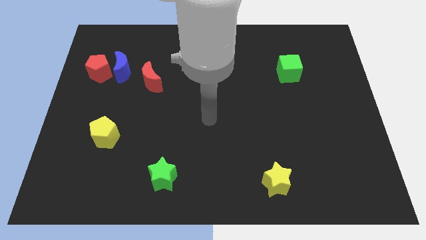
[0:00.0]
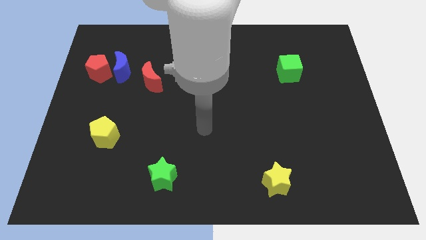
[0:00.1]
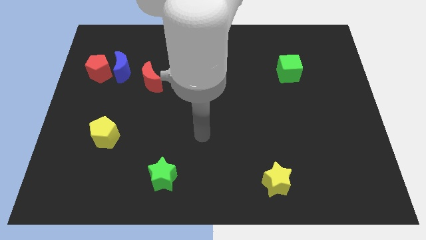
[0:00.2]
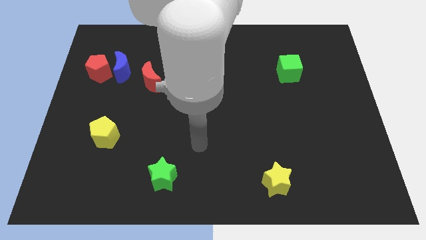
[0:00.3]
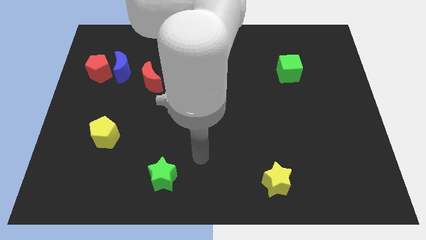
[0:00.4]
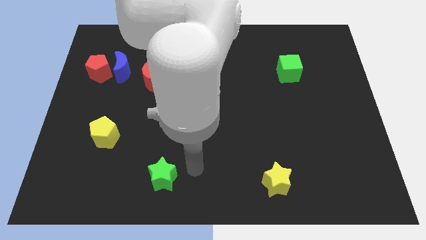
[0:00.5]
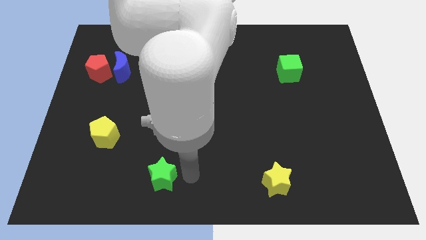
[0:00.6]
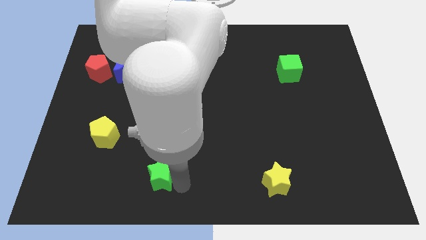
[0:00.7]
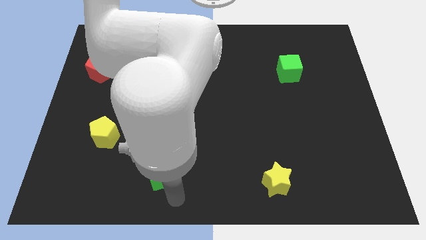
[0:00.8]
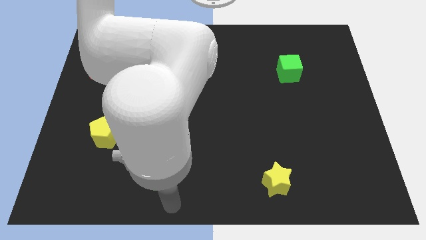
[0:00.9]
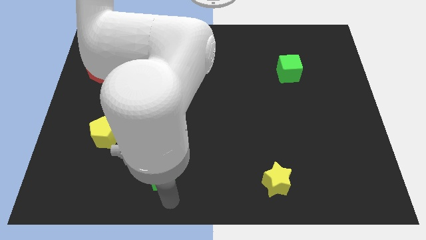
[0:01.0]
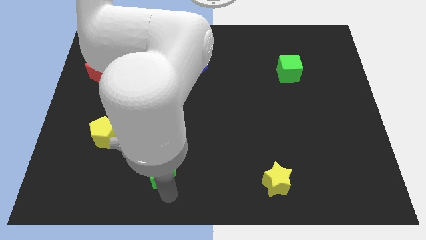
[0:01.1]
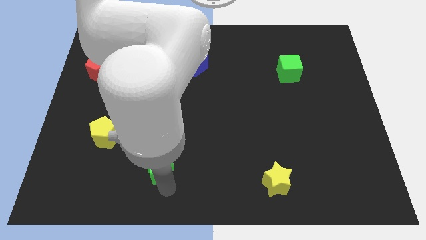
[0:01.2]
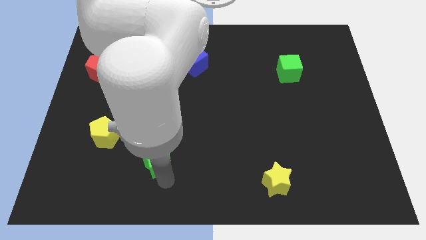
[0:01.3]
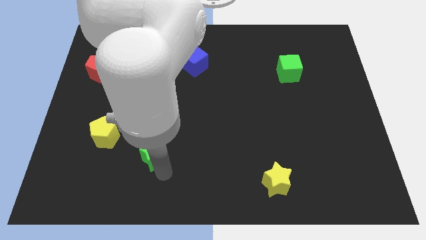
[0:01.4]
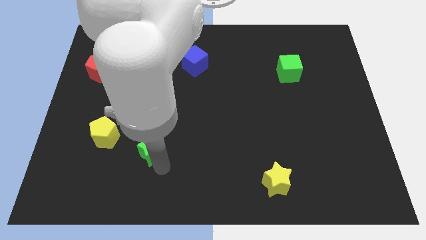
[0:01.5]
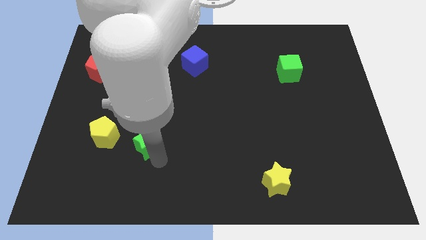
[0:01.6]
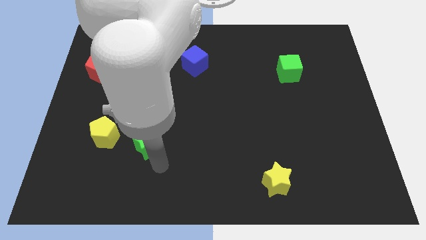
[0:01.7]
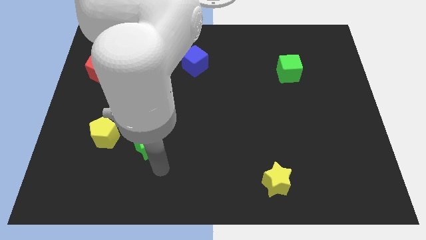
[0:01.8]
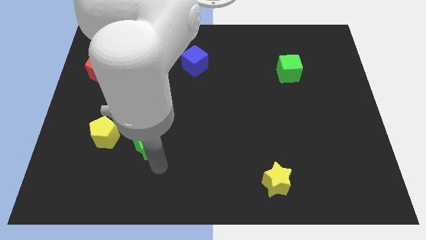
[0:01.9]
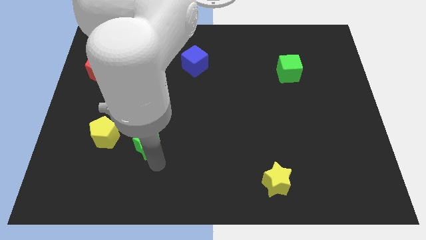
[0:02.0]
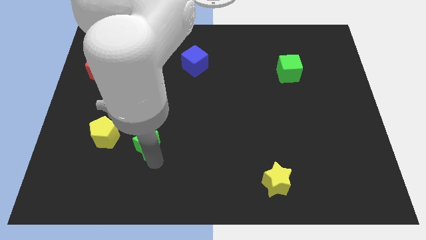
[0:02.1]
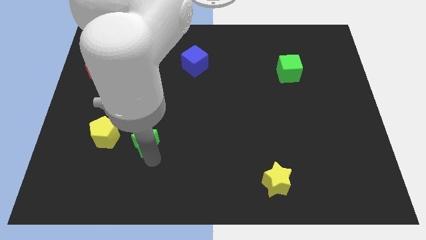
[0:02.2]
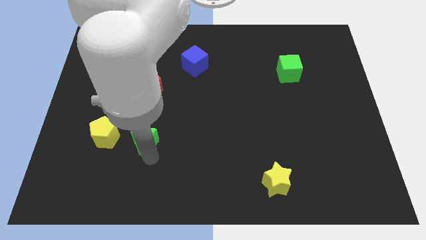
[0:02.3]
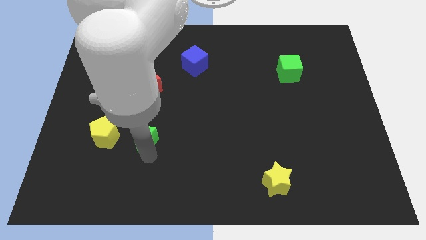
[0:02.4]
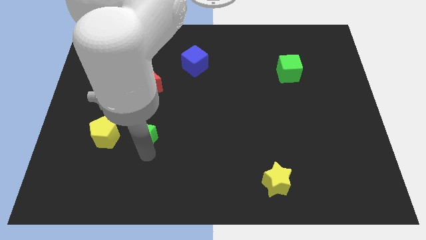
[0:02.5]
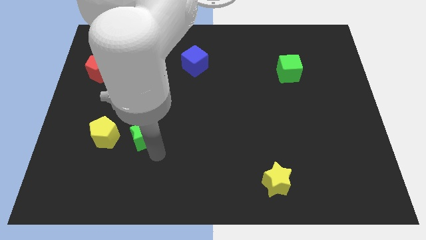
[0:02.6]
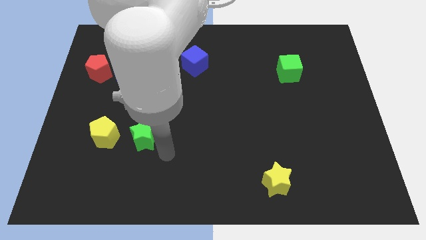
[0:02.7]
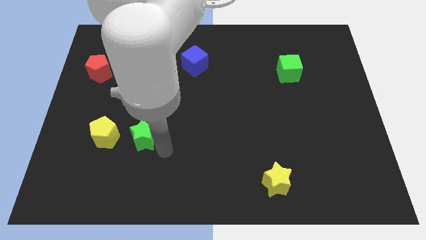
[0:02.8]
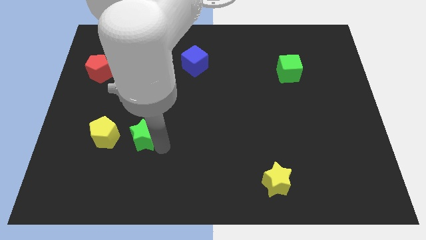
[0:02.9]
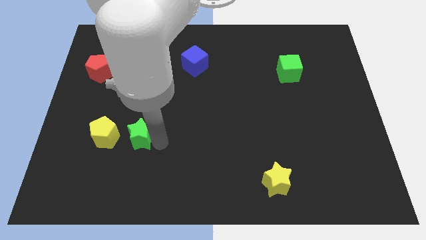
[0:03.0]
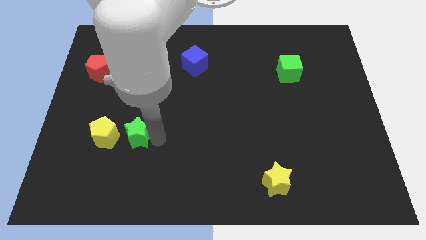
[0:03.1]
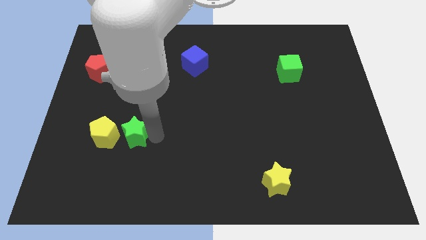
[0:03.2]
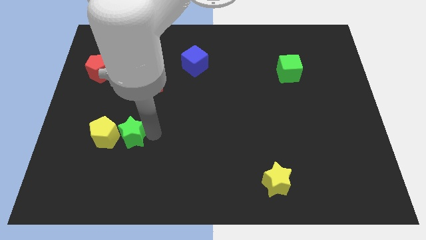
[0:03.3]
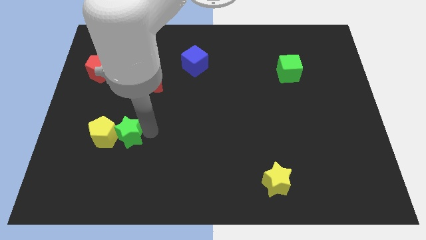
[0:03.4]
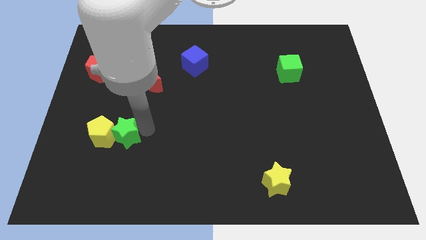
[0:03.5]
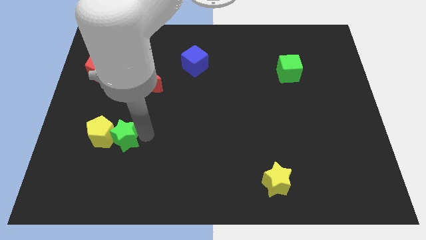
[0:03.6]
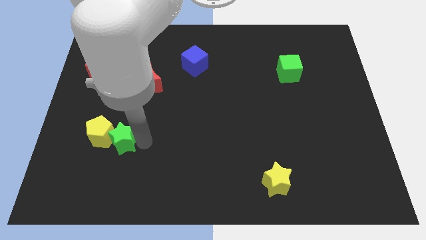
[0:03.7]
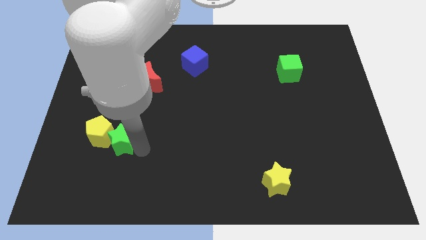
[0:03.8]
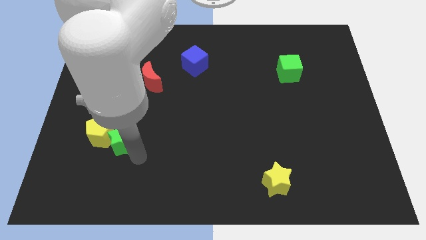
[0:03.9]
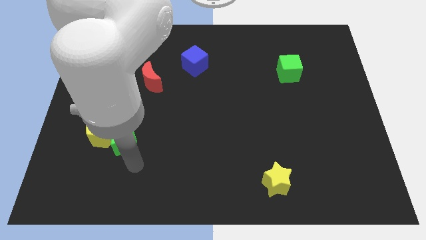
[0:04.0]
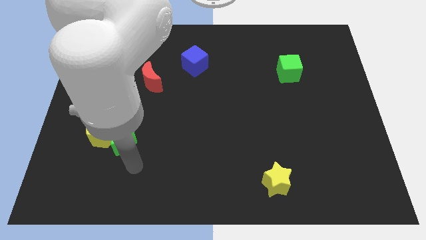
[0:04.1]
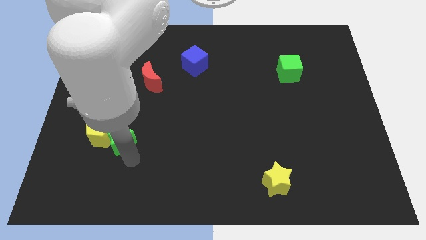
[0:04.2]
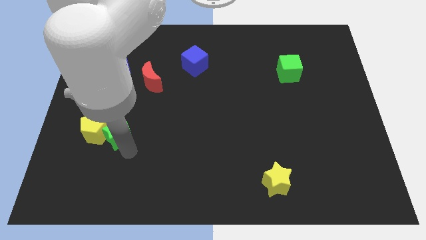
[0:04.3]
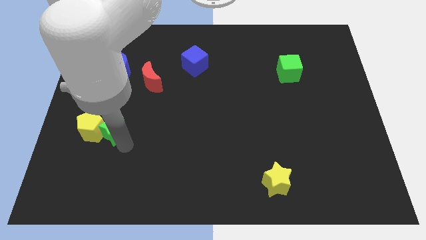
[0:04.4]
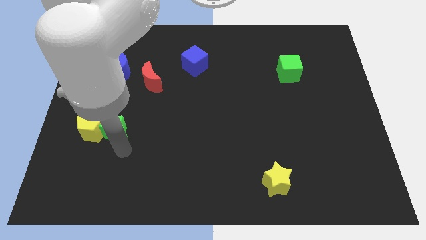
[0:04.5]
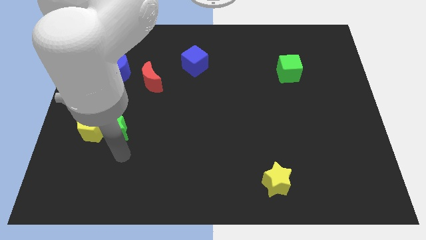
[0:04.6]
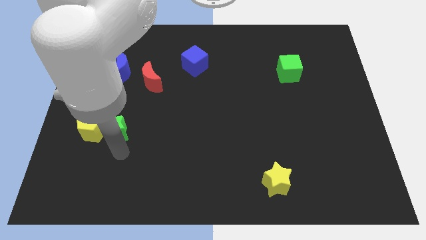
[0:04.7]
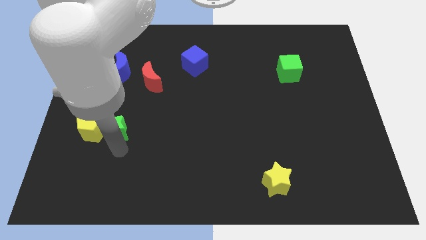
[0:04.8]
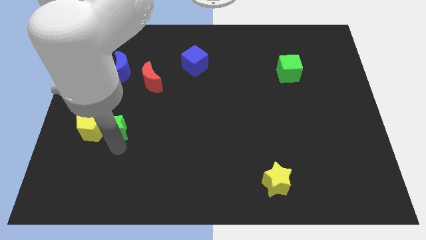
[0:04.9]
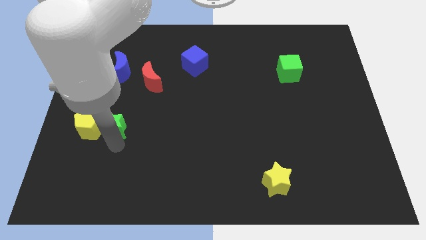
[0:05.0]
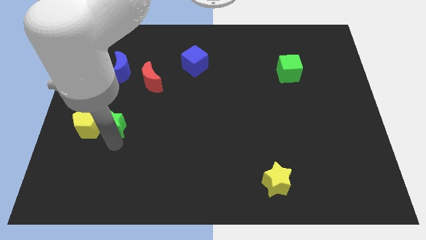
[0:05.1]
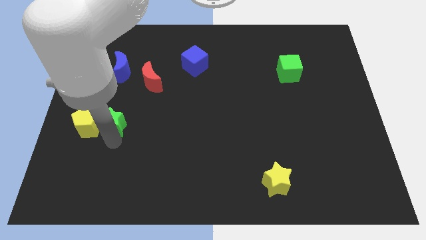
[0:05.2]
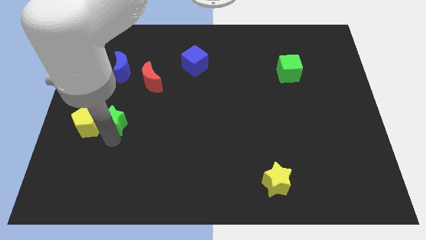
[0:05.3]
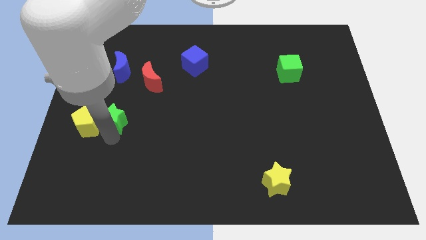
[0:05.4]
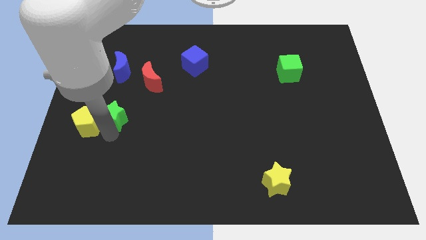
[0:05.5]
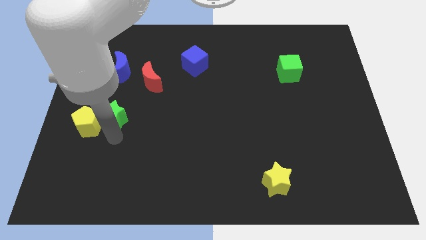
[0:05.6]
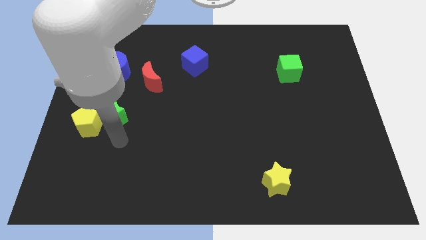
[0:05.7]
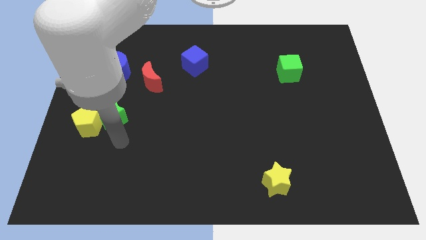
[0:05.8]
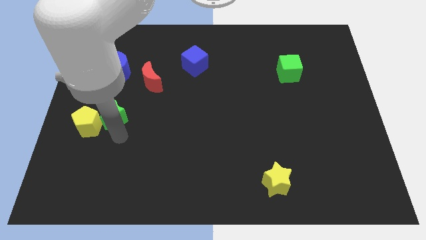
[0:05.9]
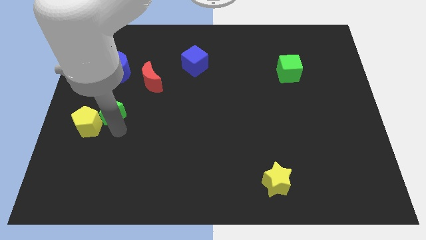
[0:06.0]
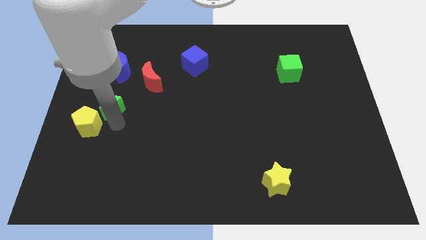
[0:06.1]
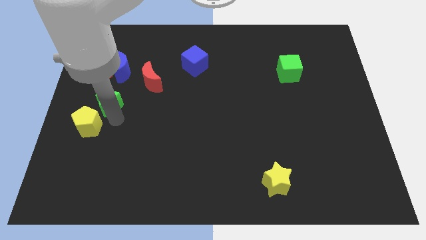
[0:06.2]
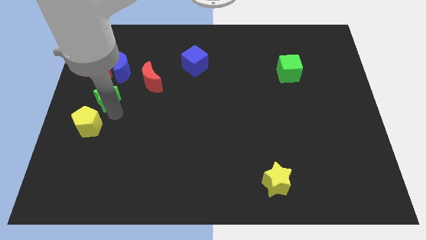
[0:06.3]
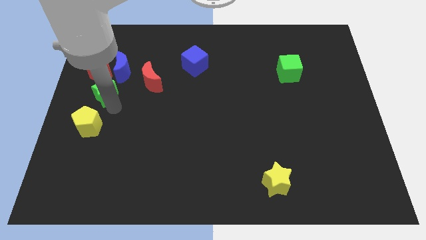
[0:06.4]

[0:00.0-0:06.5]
slide the green star to the bottom left of the blue moon
